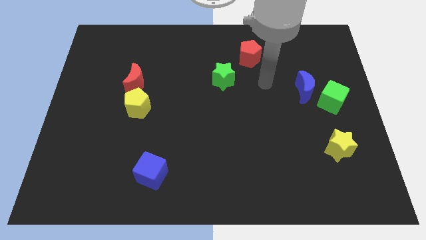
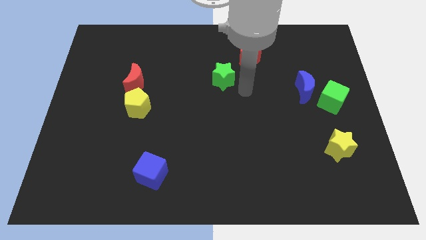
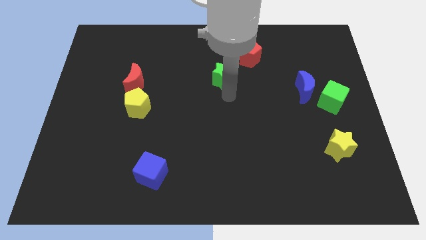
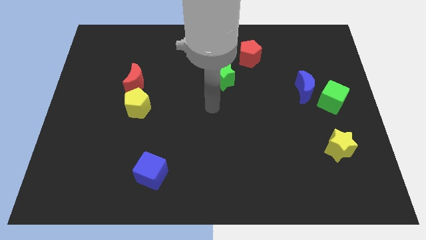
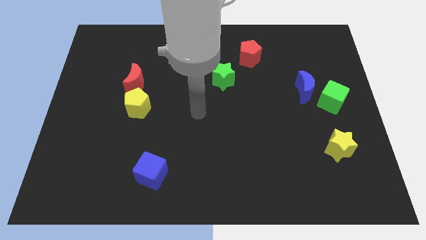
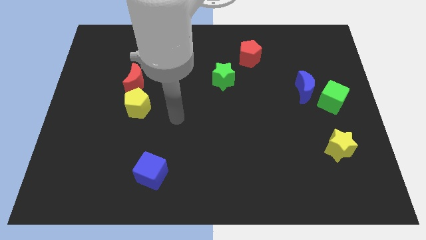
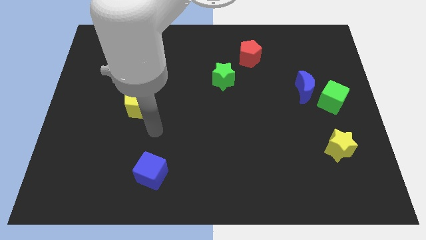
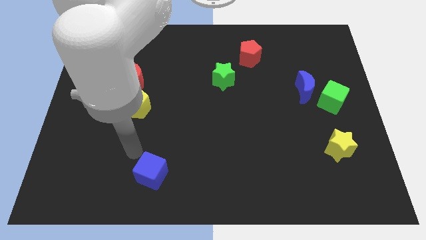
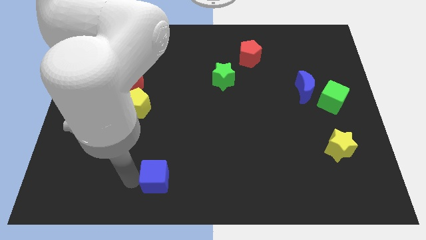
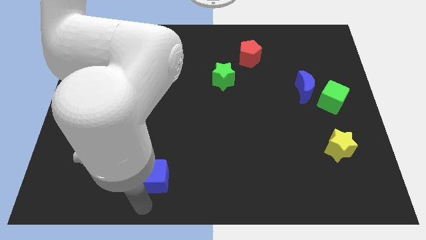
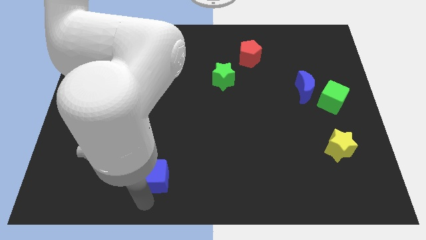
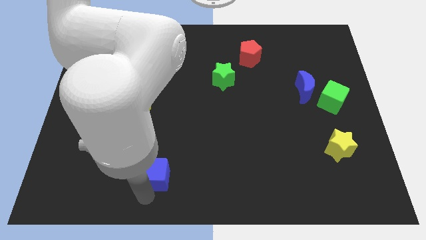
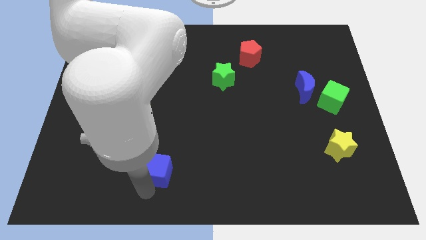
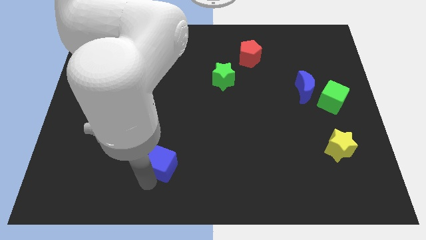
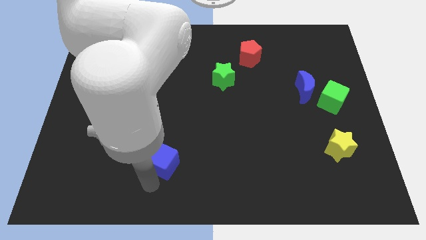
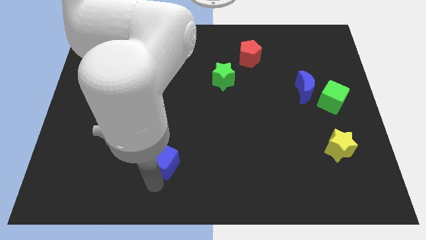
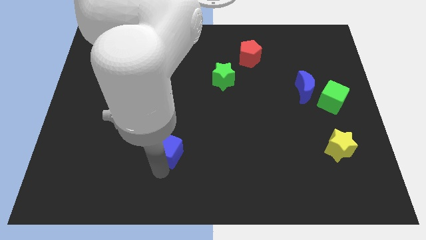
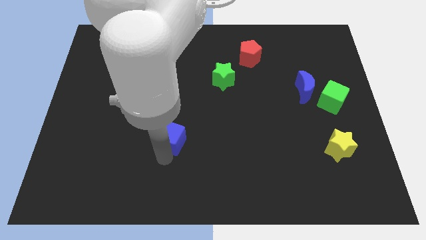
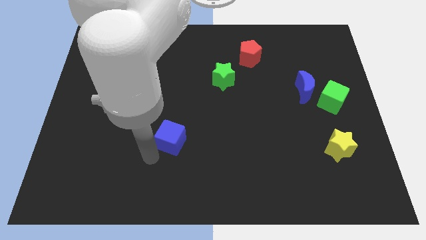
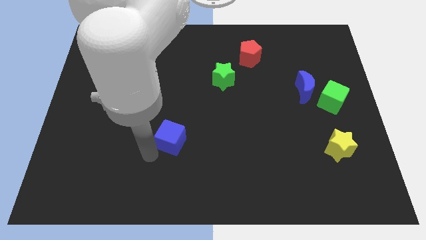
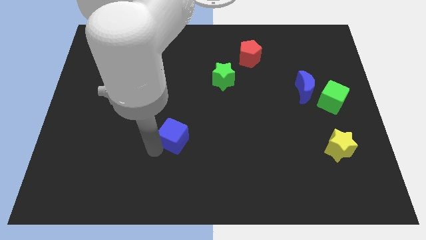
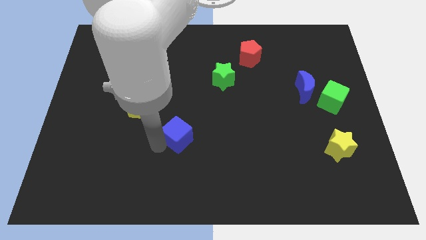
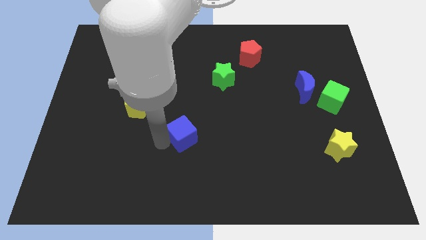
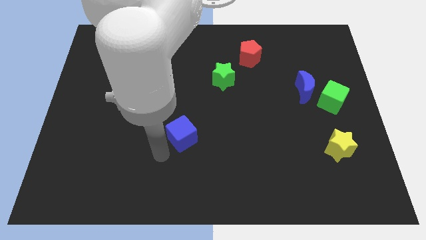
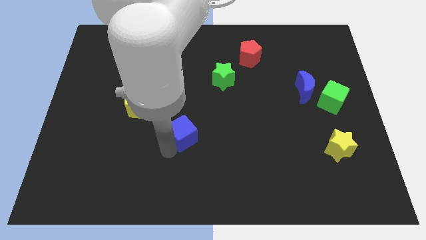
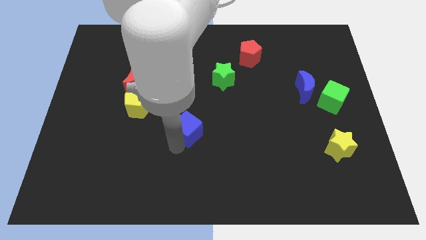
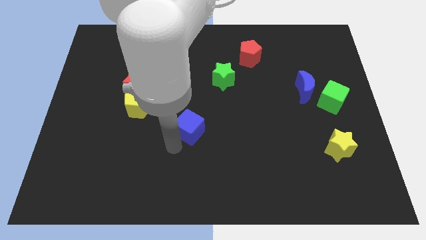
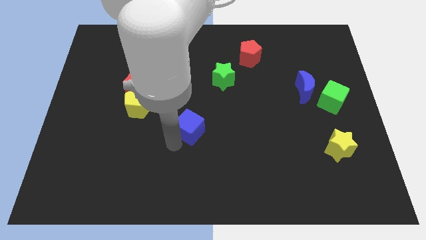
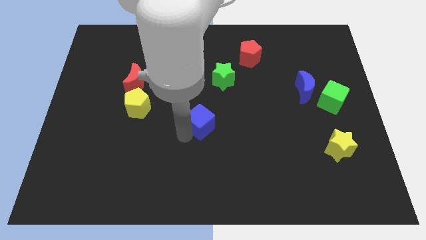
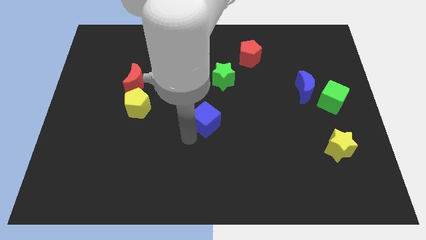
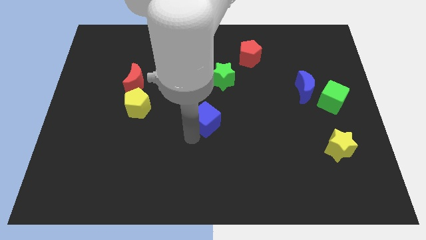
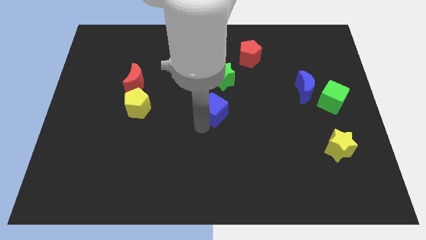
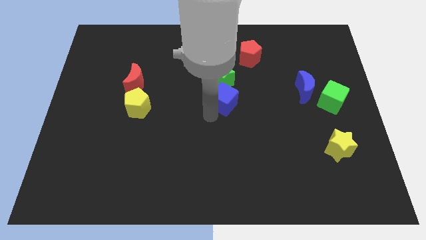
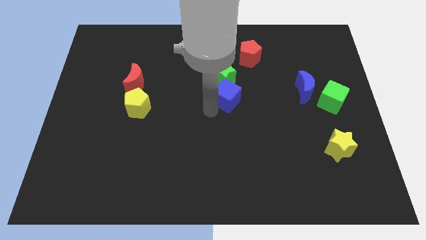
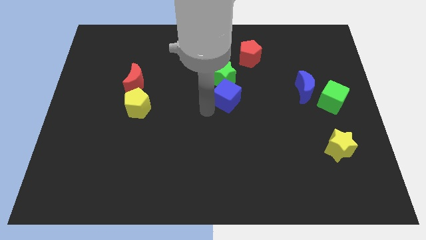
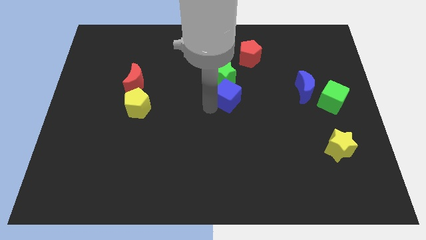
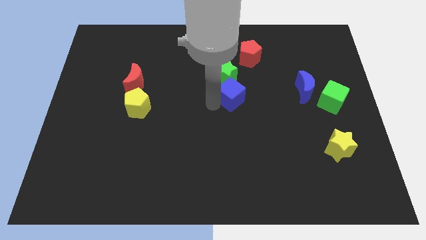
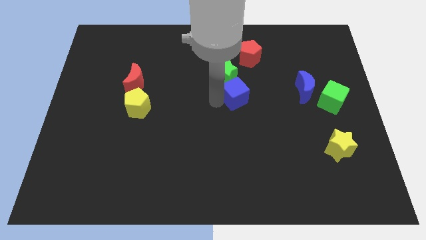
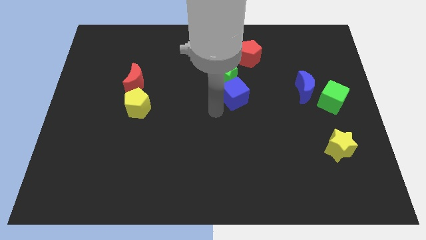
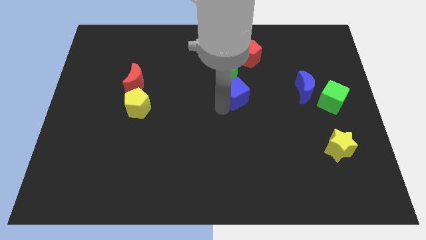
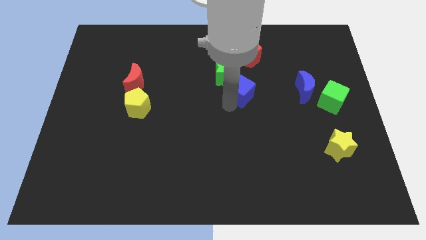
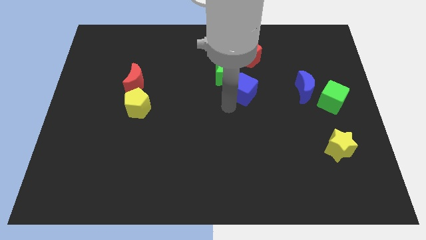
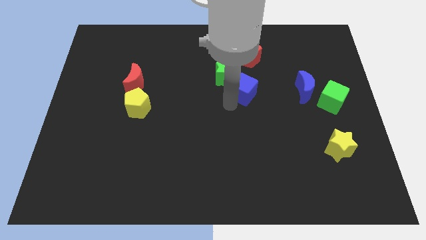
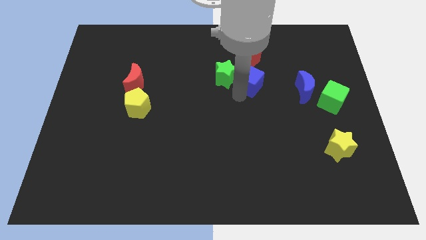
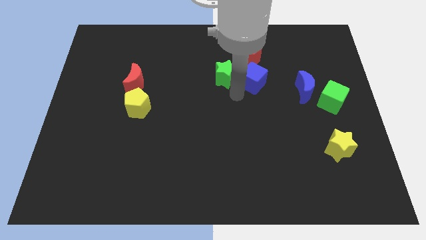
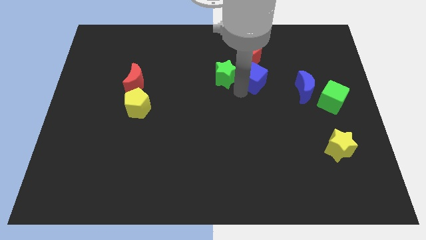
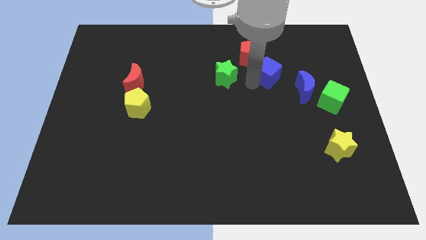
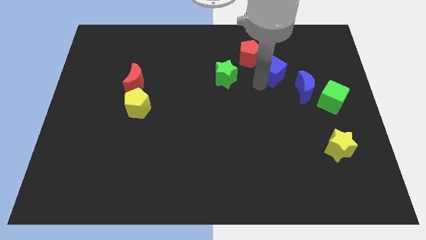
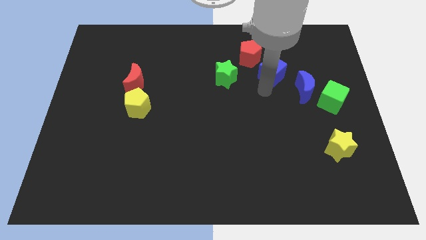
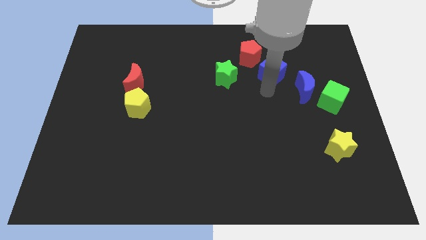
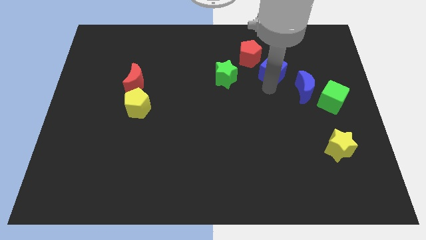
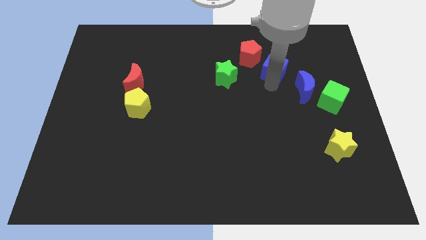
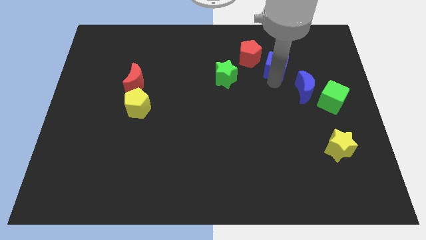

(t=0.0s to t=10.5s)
move the blue cube to the right of the red pentagon

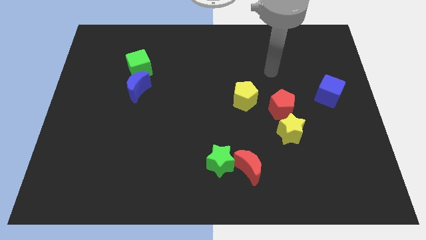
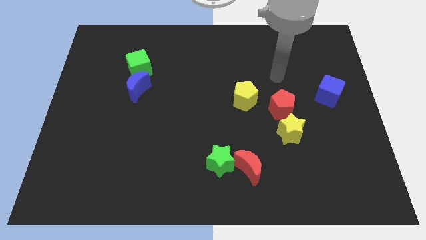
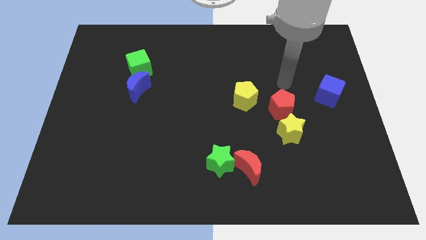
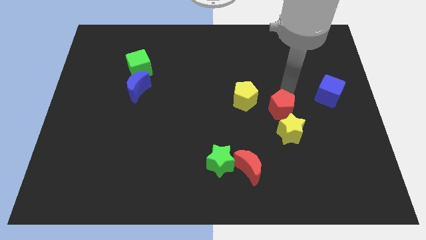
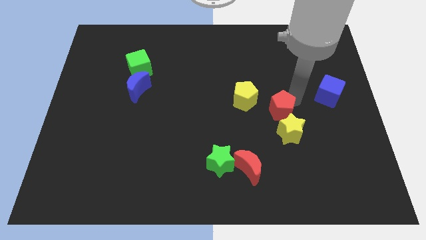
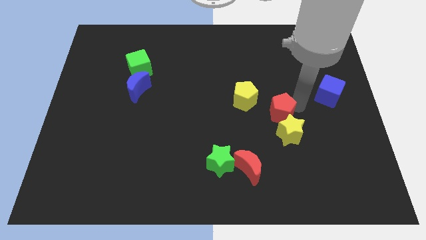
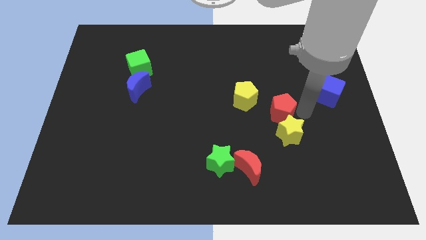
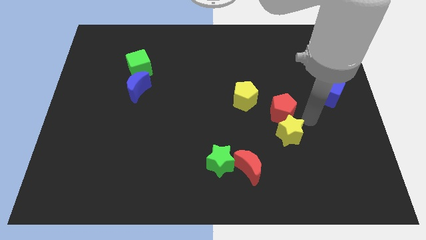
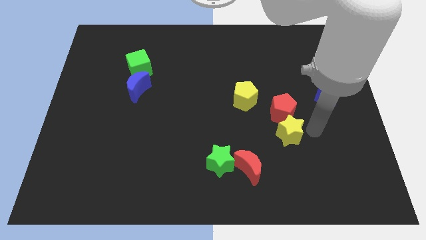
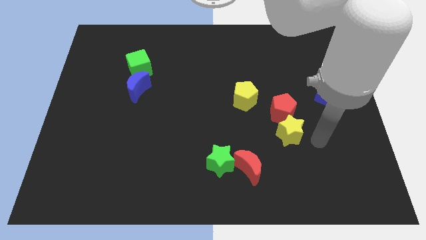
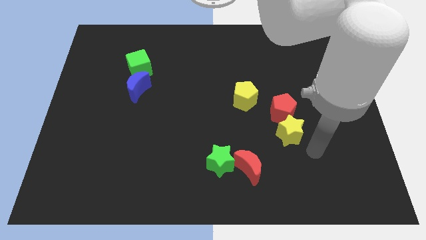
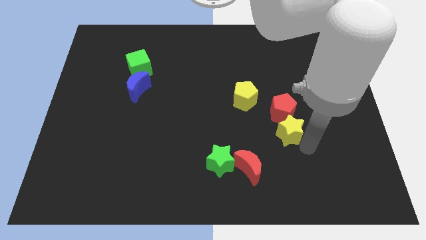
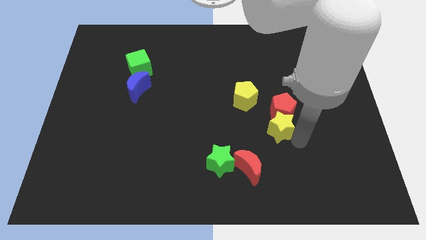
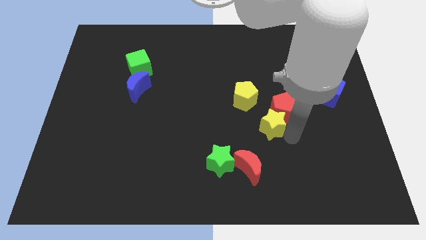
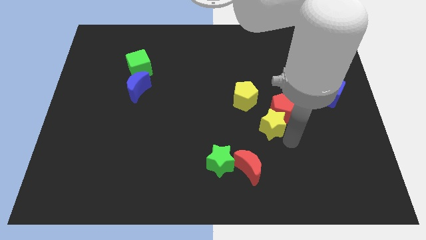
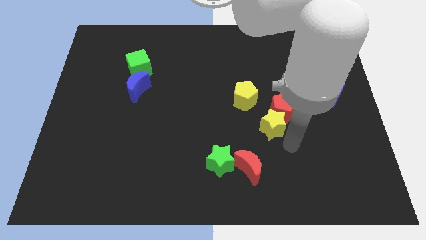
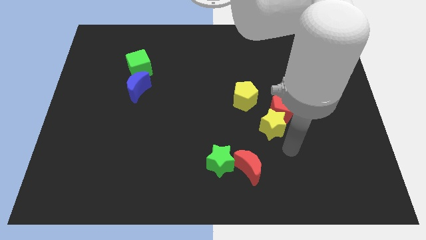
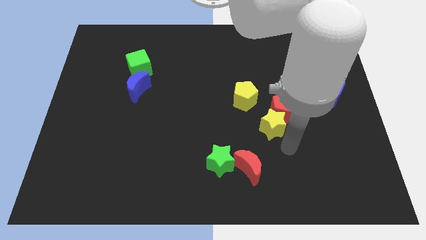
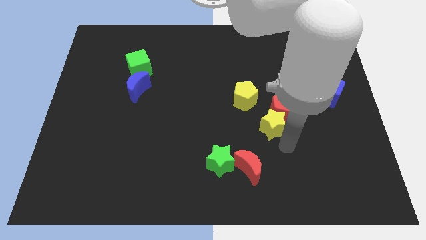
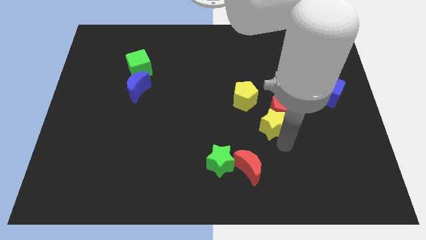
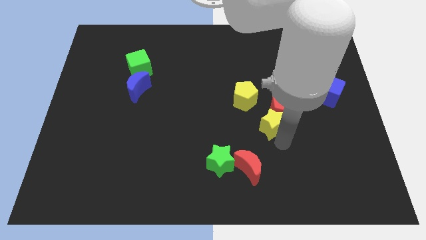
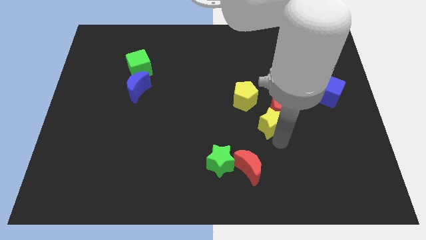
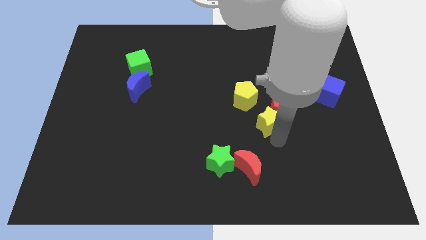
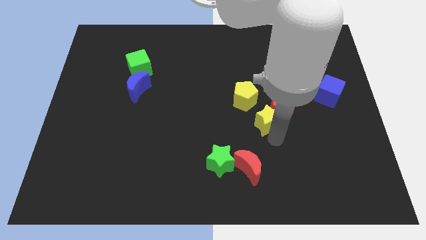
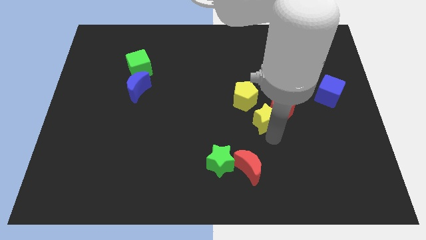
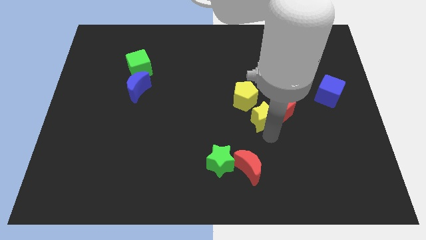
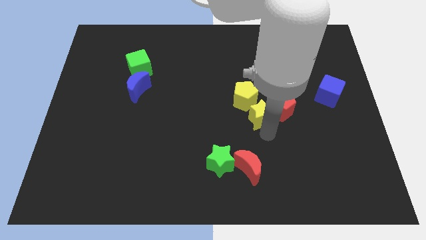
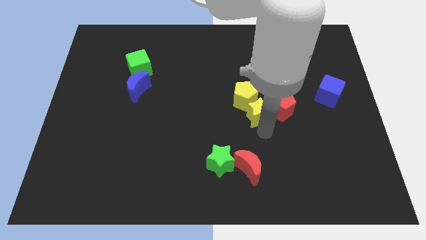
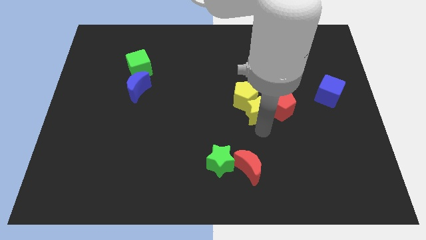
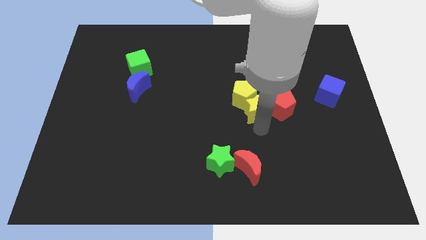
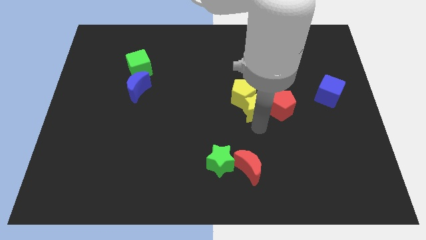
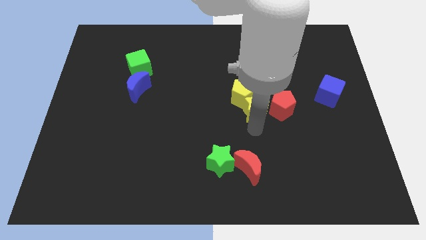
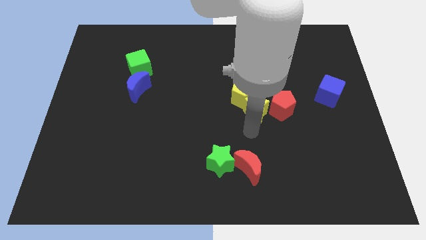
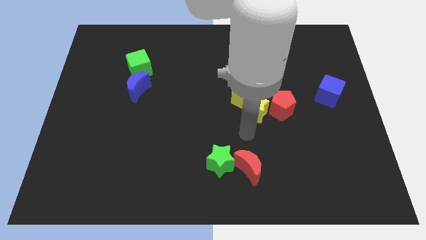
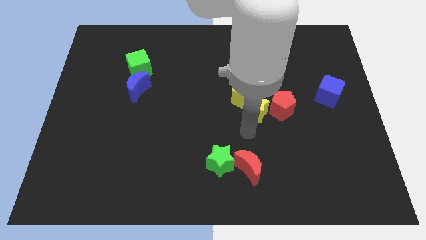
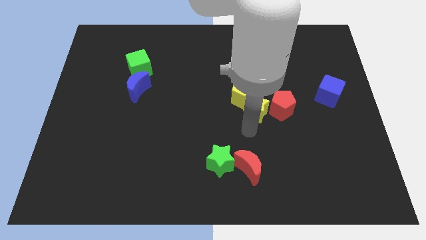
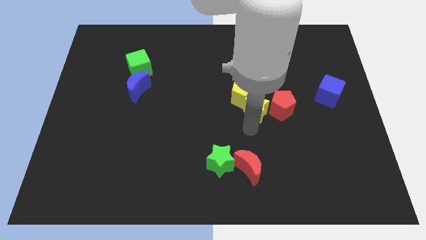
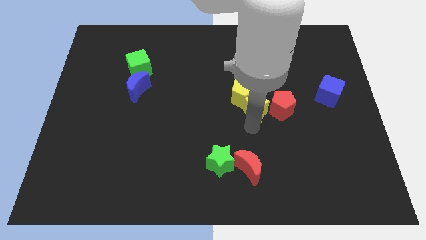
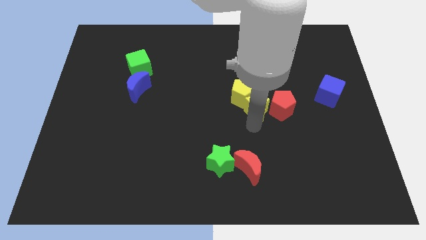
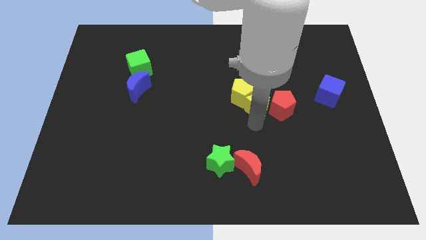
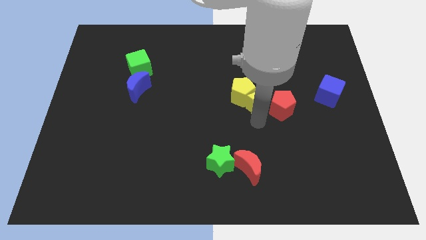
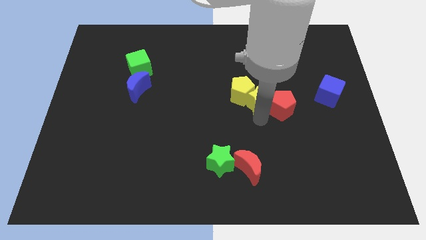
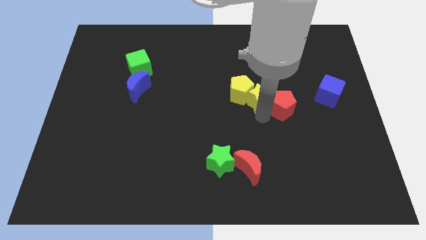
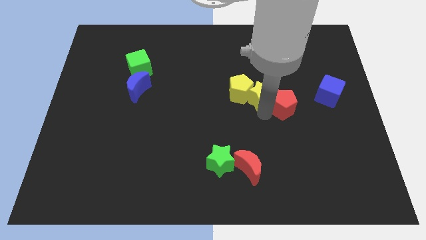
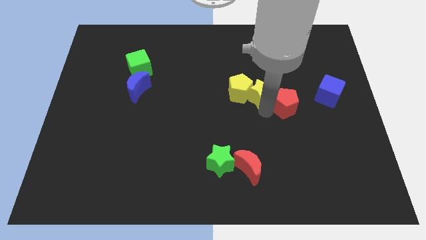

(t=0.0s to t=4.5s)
put the yellow star to the top right of the yellow pentagon
